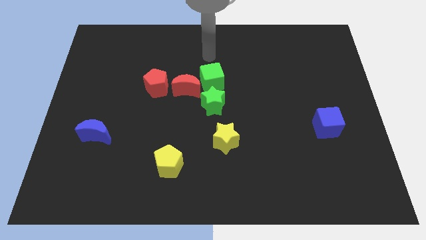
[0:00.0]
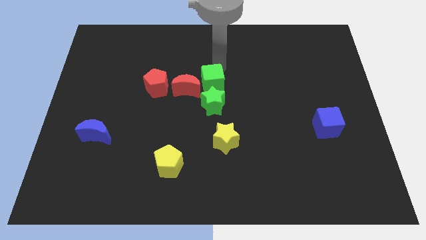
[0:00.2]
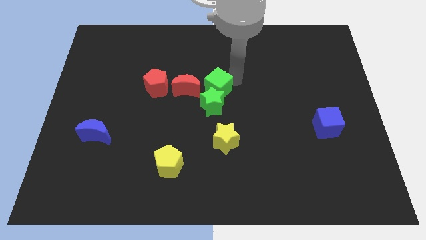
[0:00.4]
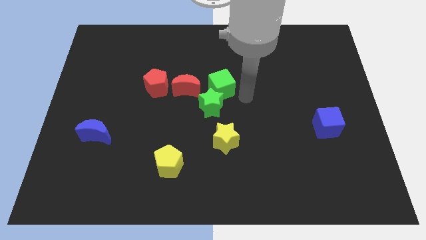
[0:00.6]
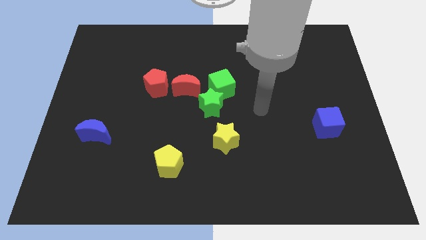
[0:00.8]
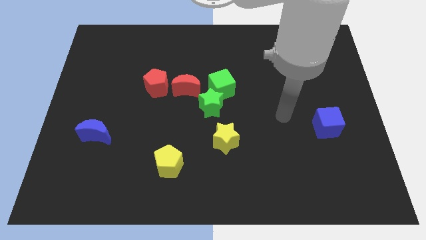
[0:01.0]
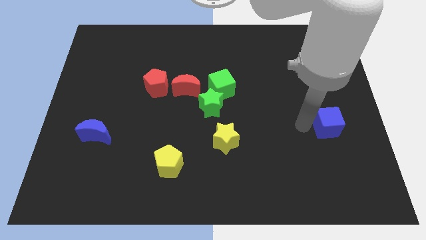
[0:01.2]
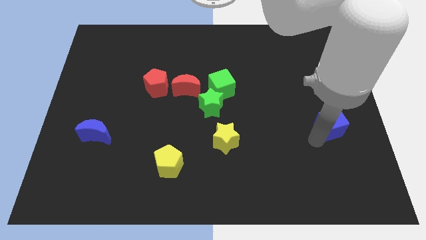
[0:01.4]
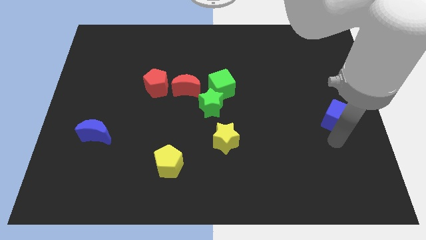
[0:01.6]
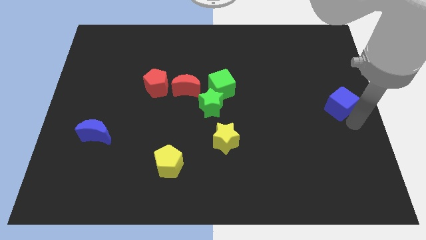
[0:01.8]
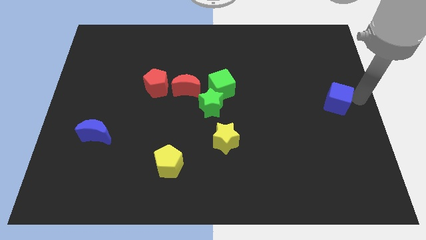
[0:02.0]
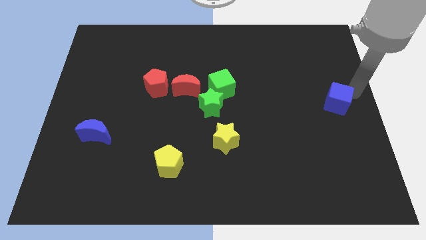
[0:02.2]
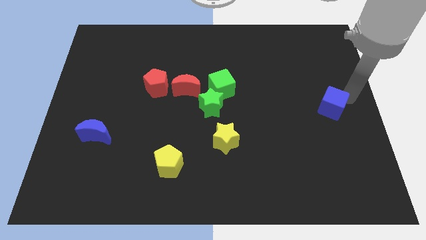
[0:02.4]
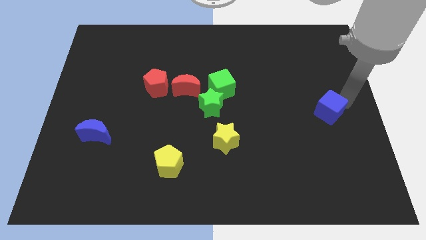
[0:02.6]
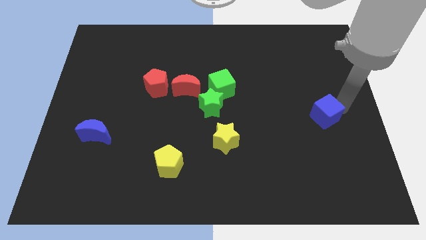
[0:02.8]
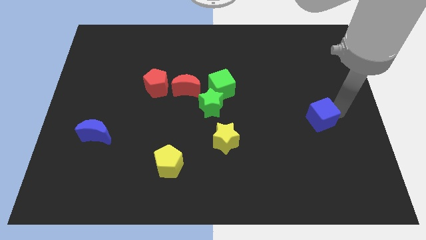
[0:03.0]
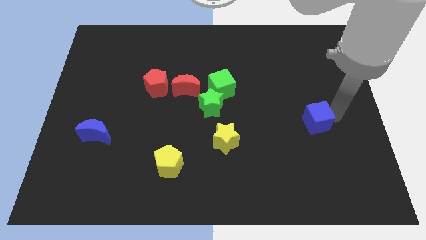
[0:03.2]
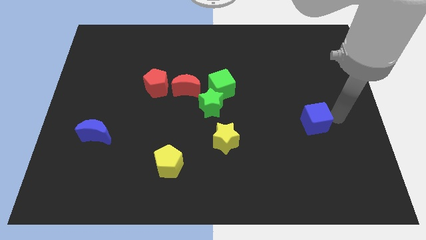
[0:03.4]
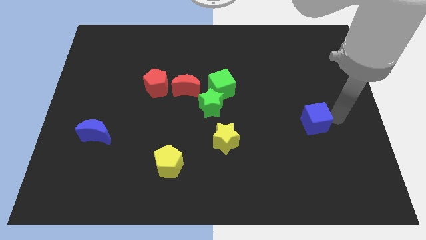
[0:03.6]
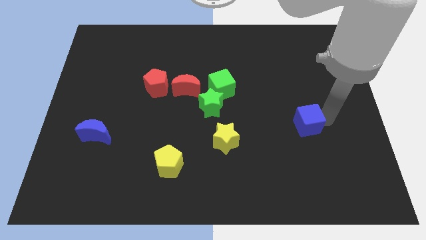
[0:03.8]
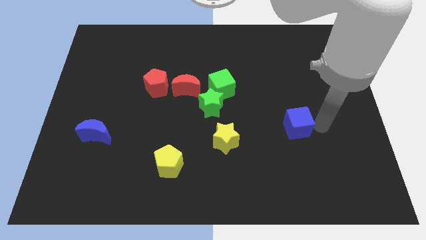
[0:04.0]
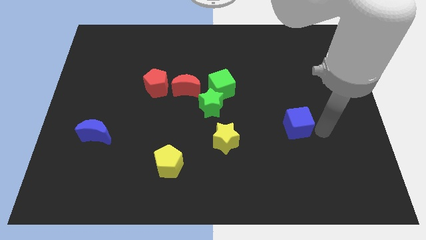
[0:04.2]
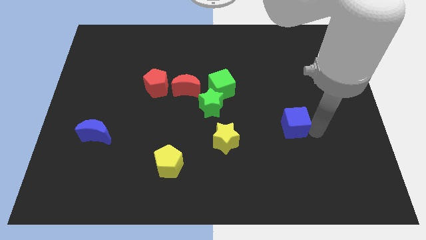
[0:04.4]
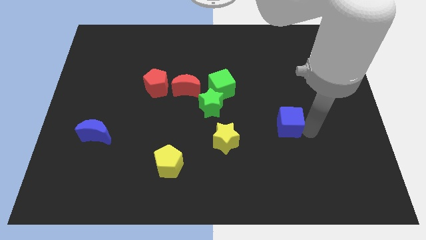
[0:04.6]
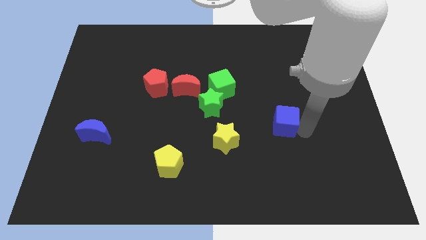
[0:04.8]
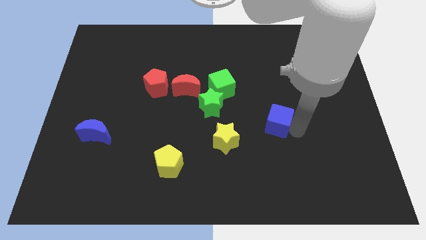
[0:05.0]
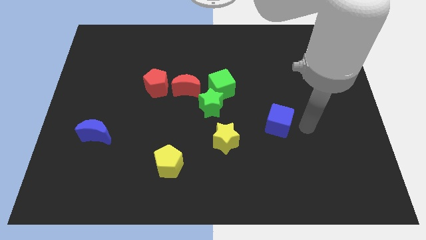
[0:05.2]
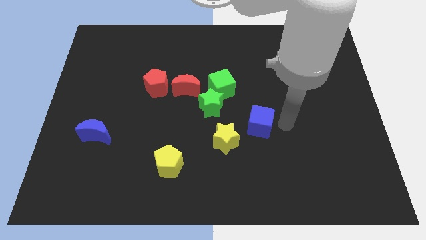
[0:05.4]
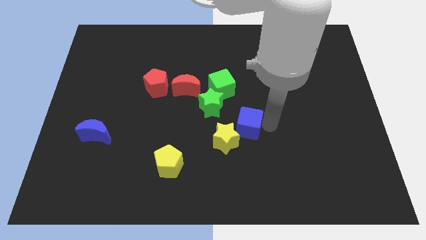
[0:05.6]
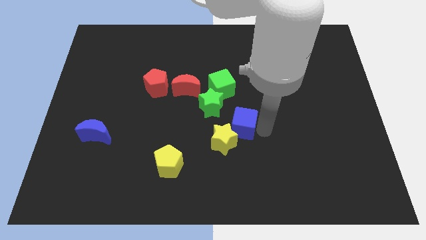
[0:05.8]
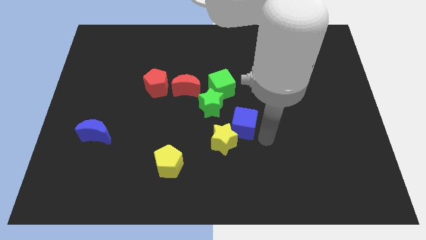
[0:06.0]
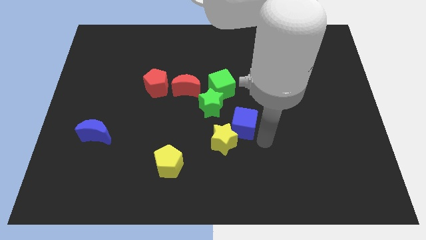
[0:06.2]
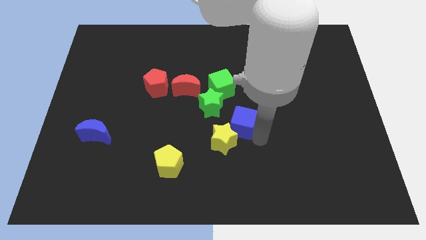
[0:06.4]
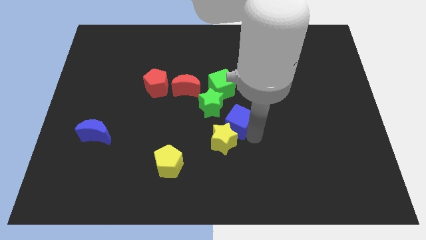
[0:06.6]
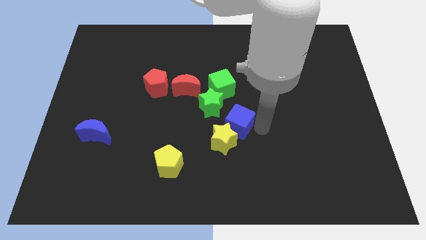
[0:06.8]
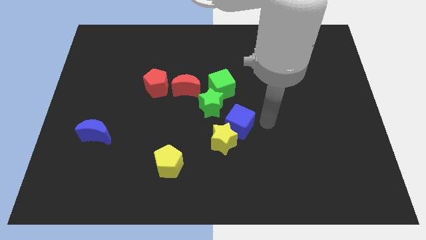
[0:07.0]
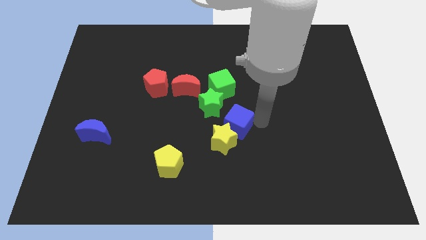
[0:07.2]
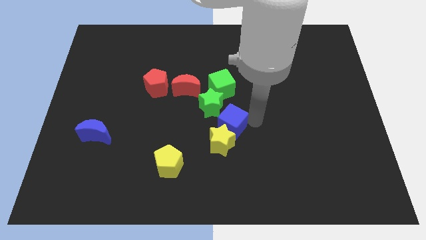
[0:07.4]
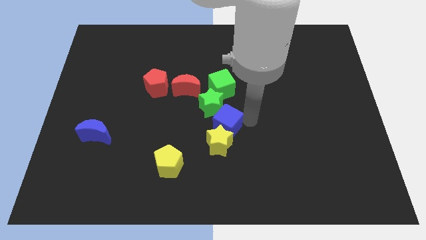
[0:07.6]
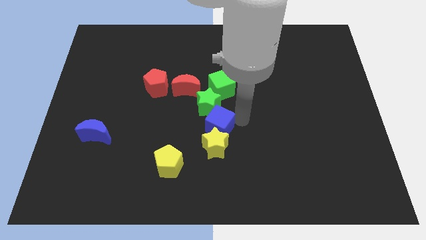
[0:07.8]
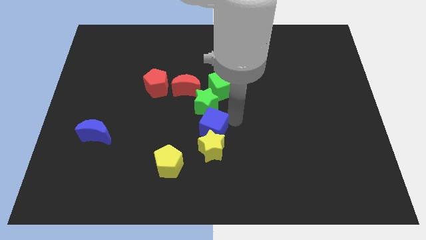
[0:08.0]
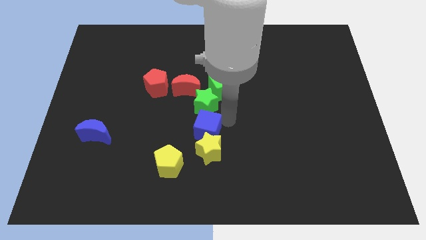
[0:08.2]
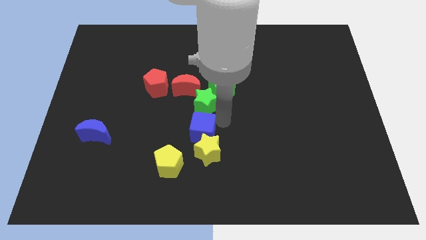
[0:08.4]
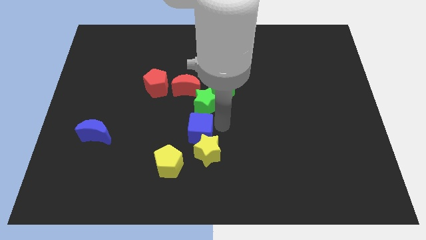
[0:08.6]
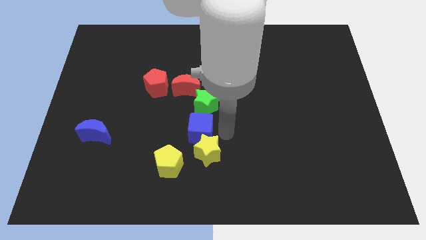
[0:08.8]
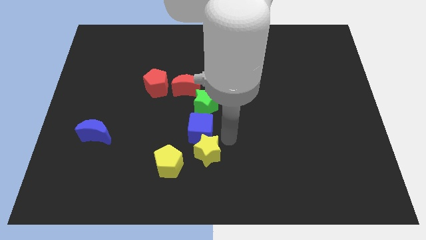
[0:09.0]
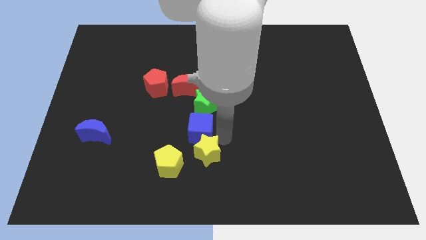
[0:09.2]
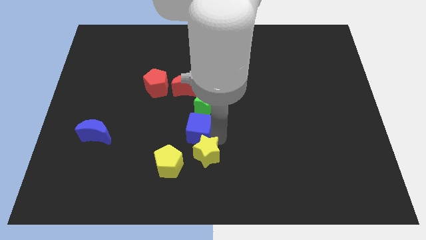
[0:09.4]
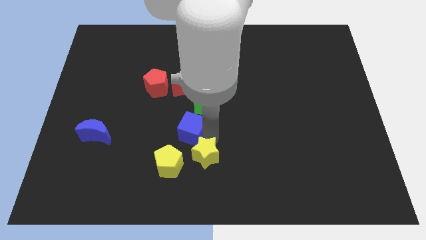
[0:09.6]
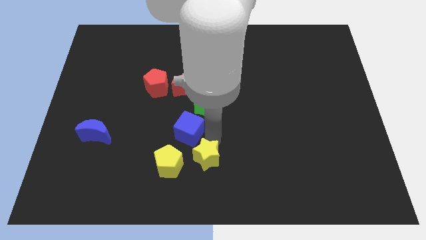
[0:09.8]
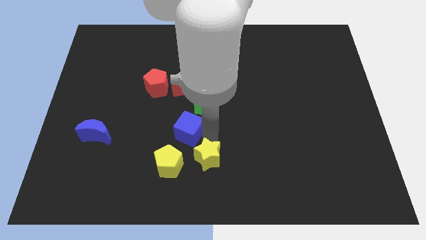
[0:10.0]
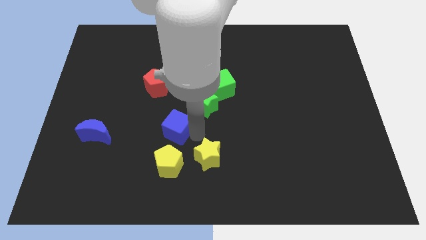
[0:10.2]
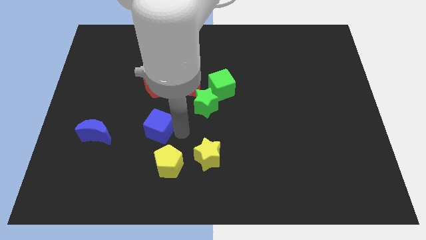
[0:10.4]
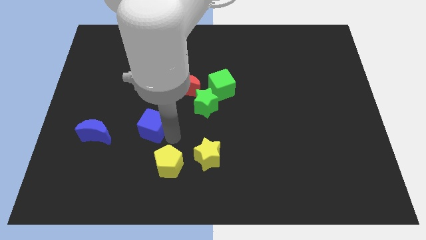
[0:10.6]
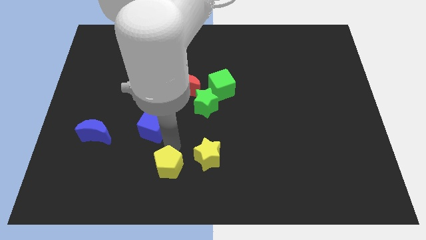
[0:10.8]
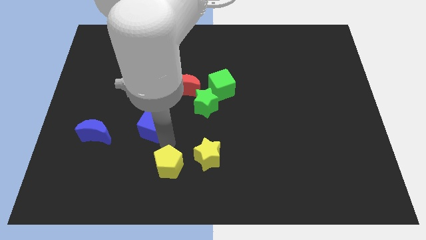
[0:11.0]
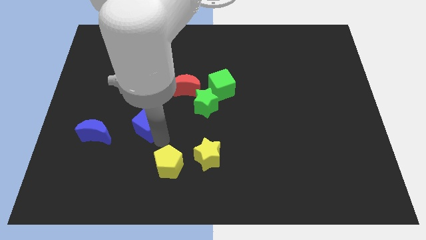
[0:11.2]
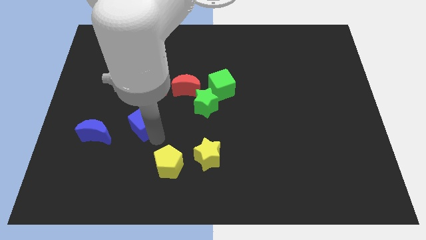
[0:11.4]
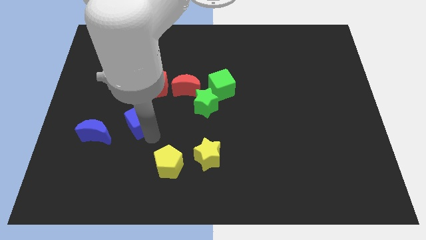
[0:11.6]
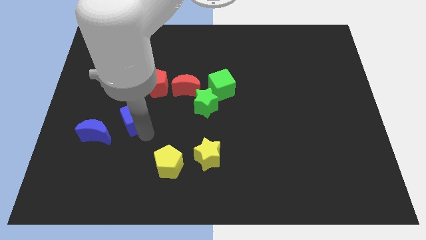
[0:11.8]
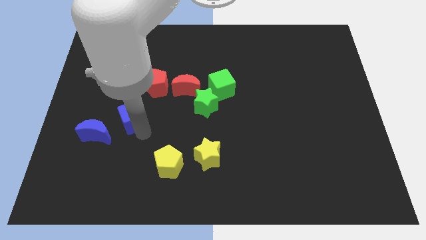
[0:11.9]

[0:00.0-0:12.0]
push the blue cube to the bottom left side of the red pentagon
